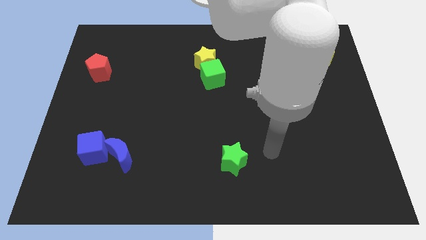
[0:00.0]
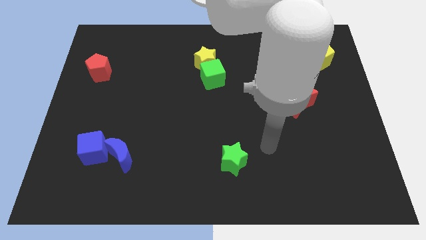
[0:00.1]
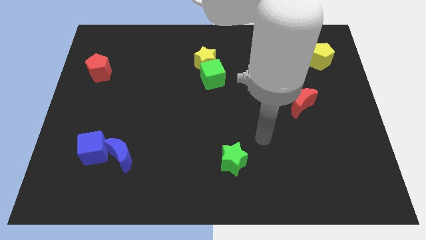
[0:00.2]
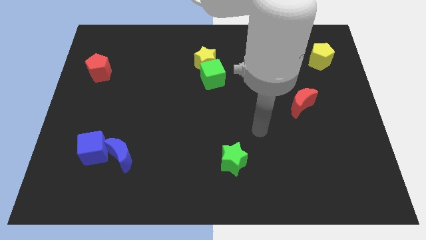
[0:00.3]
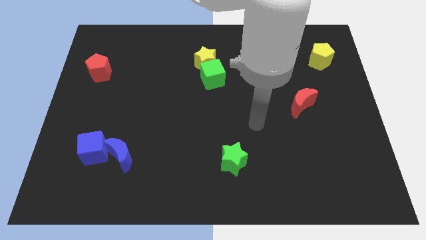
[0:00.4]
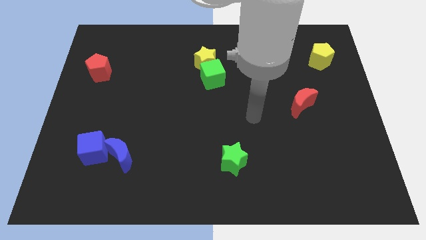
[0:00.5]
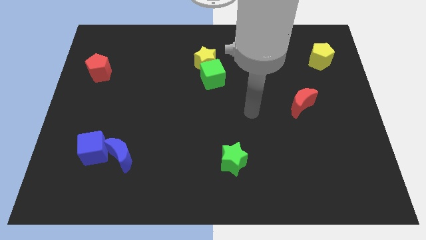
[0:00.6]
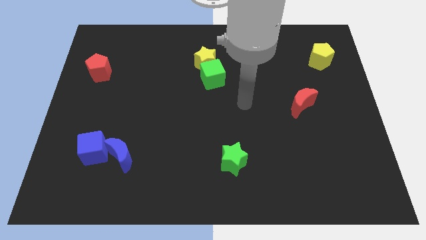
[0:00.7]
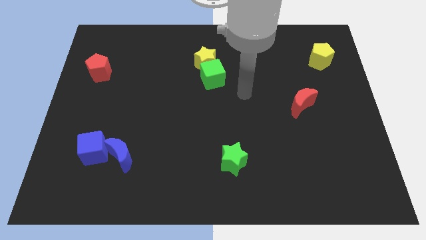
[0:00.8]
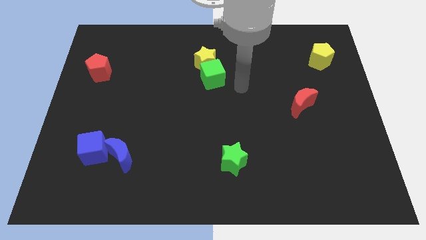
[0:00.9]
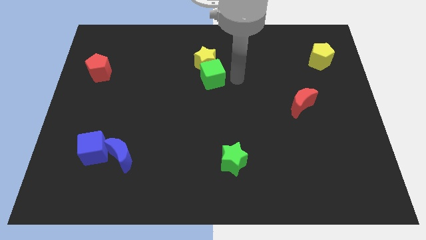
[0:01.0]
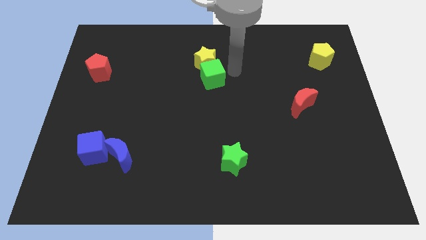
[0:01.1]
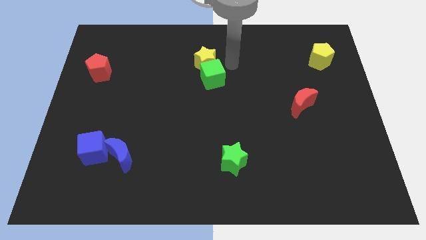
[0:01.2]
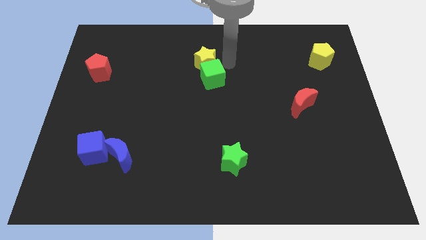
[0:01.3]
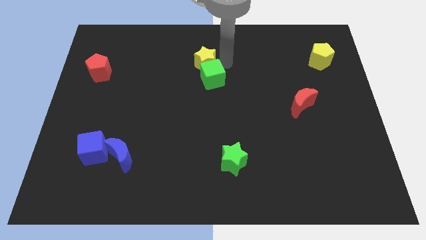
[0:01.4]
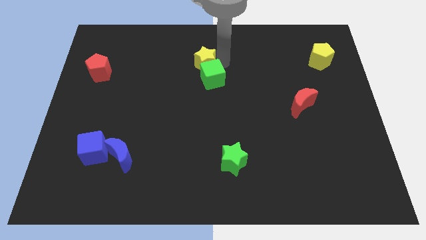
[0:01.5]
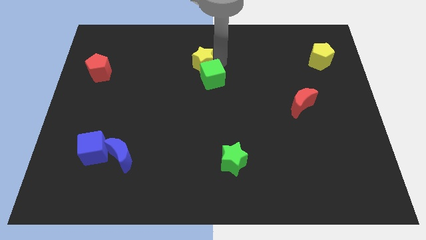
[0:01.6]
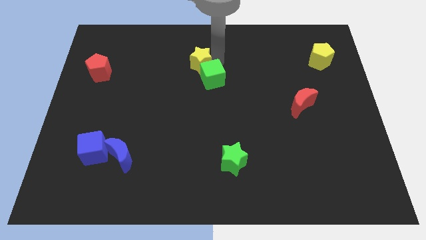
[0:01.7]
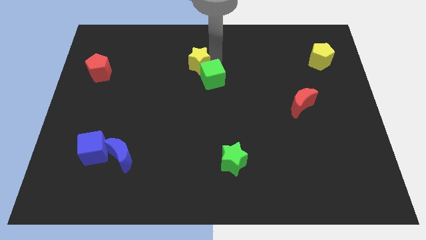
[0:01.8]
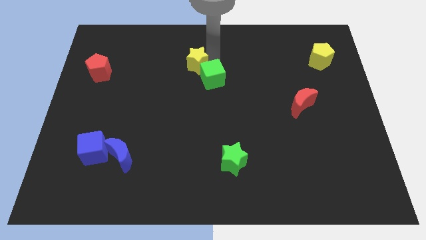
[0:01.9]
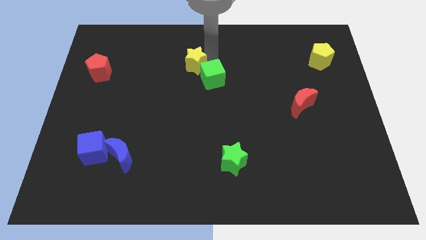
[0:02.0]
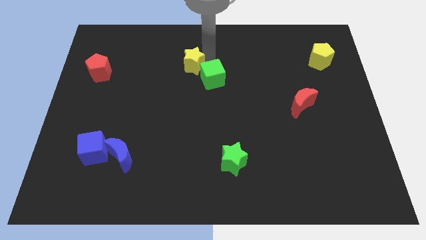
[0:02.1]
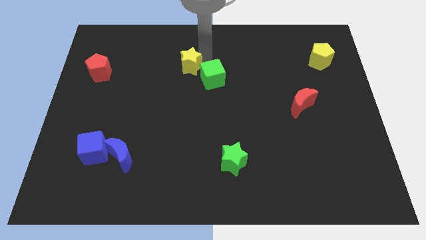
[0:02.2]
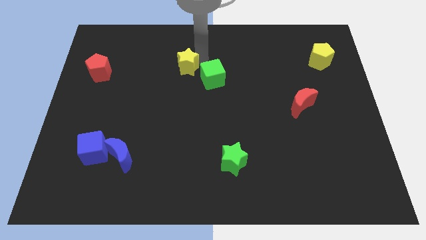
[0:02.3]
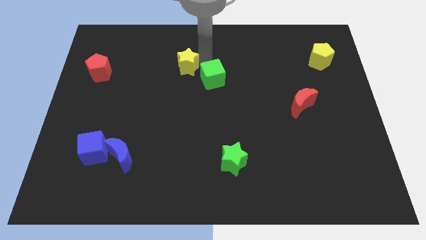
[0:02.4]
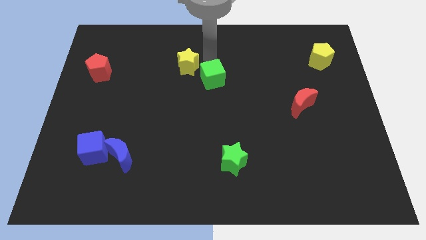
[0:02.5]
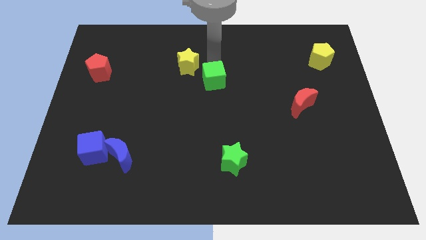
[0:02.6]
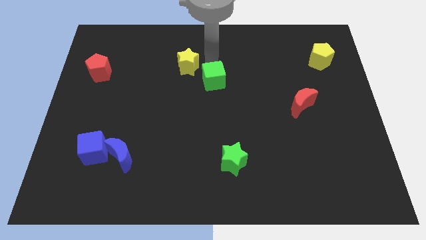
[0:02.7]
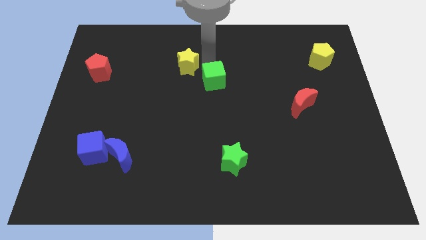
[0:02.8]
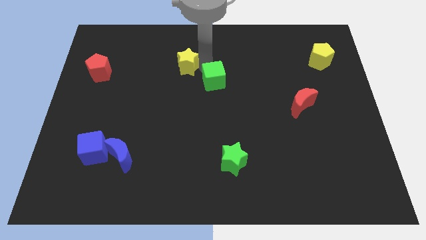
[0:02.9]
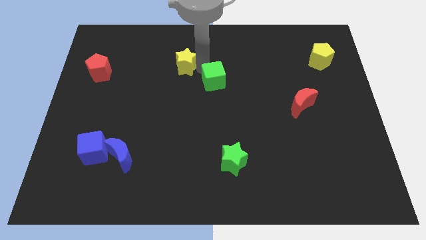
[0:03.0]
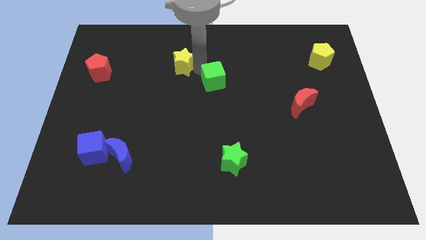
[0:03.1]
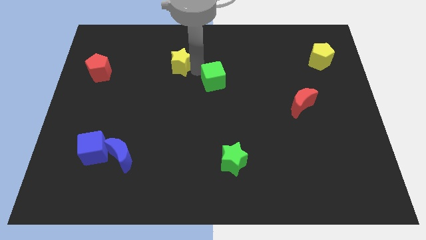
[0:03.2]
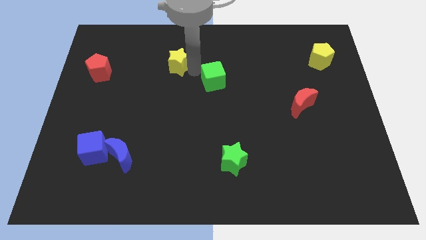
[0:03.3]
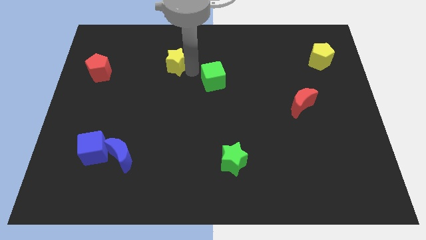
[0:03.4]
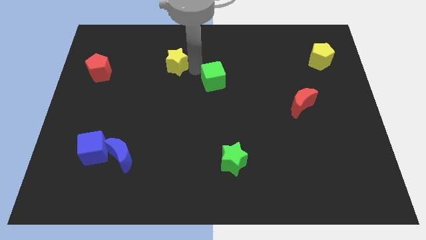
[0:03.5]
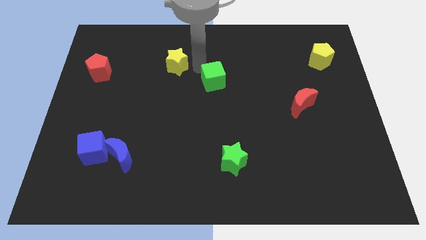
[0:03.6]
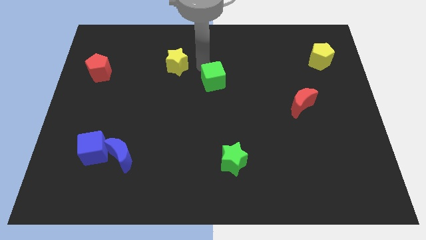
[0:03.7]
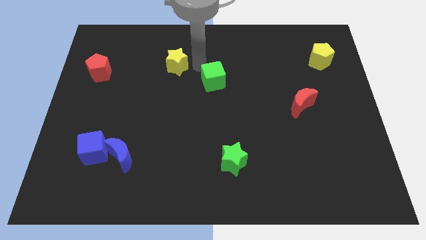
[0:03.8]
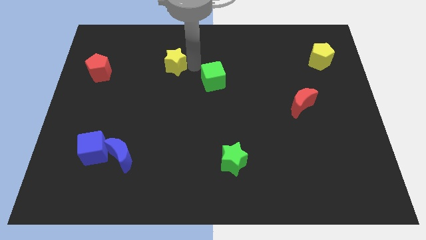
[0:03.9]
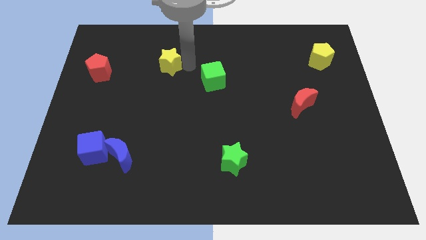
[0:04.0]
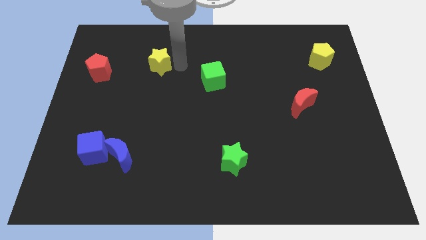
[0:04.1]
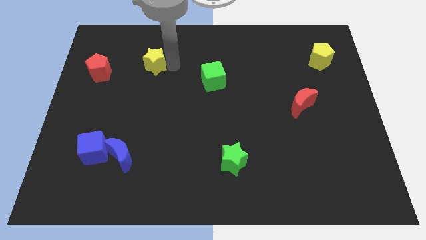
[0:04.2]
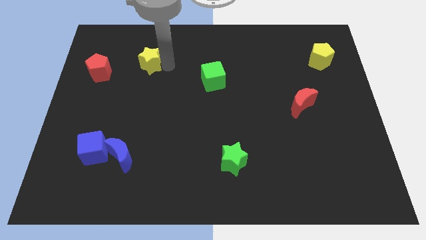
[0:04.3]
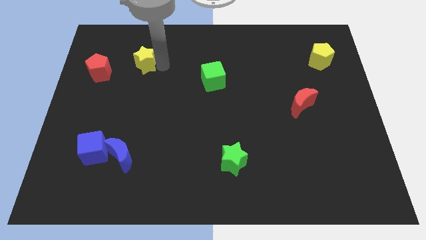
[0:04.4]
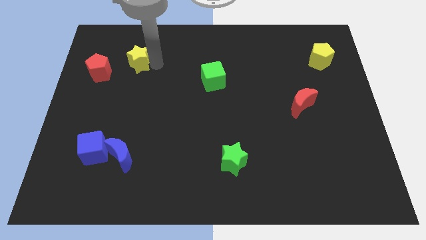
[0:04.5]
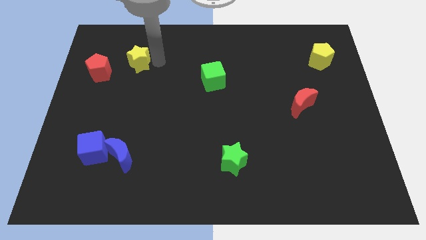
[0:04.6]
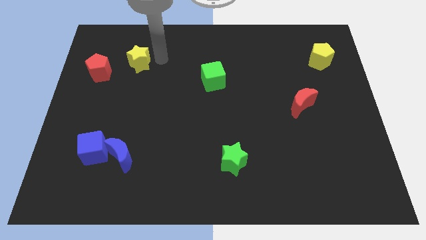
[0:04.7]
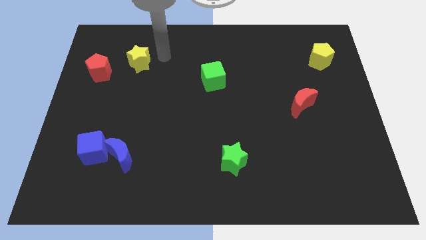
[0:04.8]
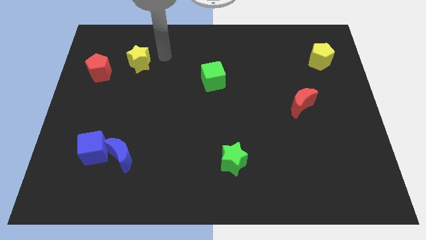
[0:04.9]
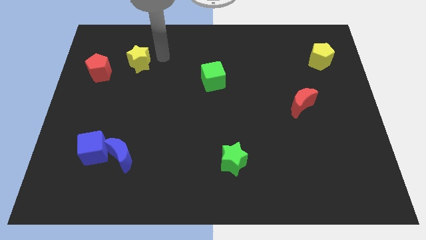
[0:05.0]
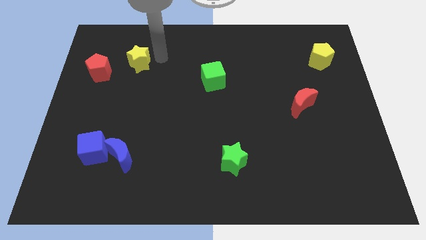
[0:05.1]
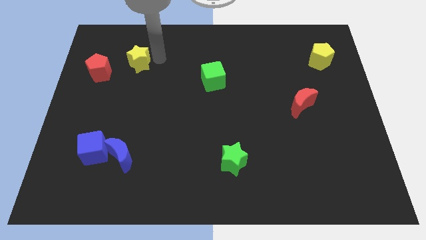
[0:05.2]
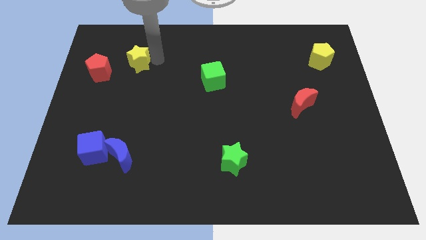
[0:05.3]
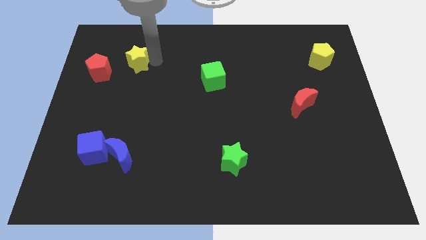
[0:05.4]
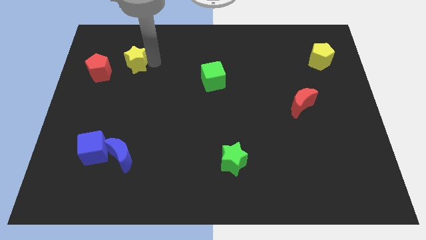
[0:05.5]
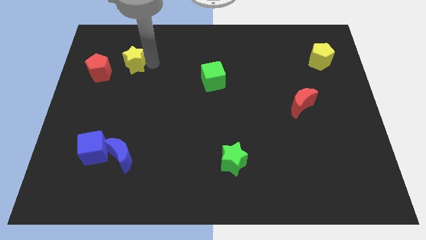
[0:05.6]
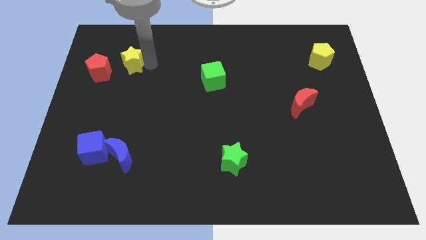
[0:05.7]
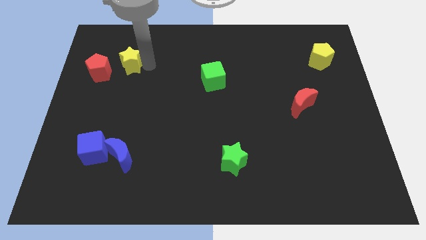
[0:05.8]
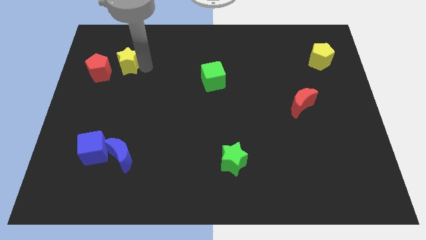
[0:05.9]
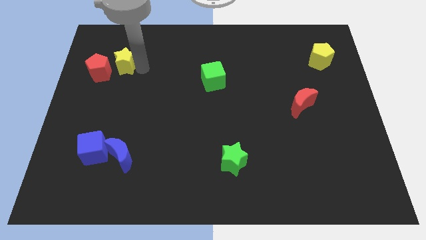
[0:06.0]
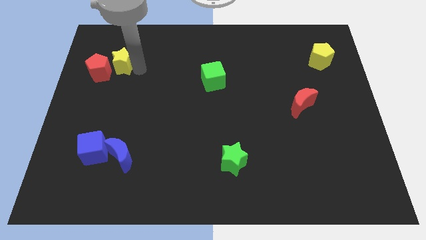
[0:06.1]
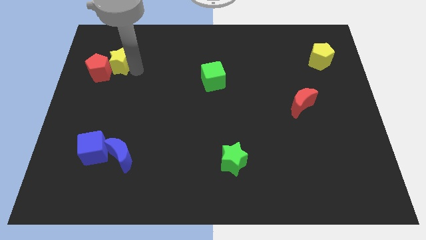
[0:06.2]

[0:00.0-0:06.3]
move the yellow star close to the red pentagon
